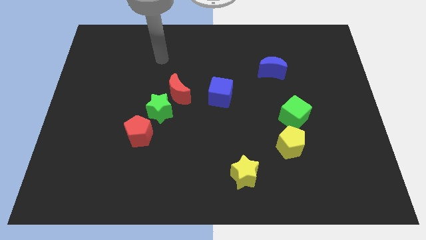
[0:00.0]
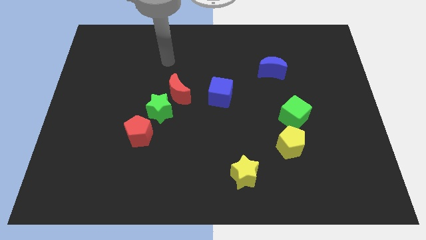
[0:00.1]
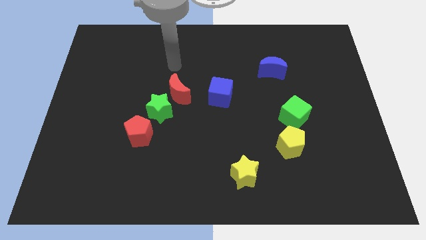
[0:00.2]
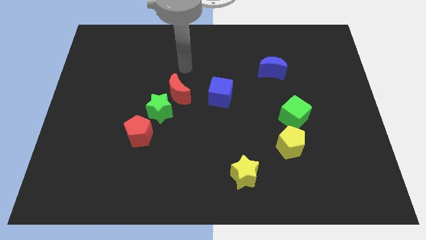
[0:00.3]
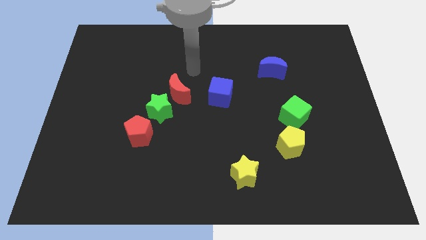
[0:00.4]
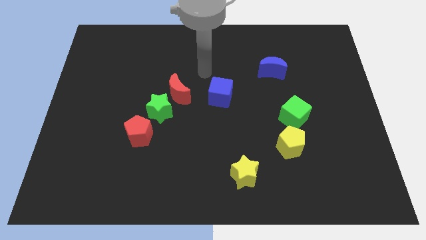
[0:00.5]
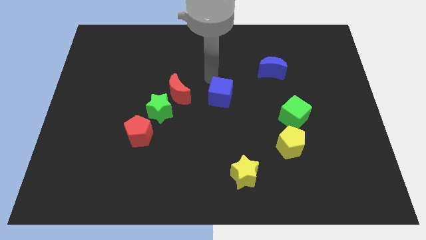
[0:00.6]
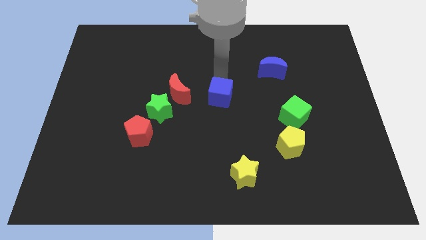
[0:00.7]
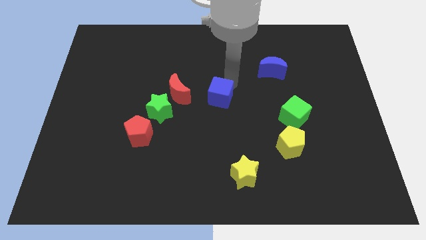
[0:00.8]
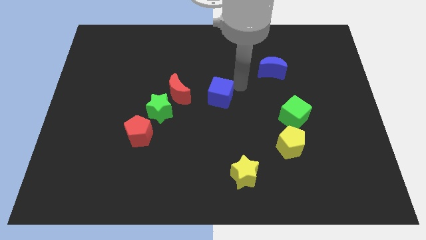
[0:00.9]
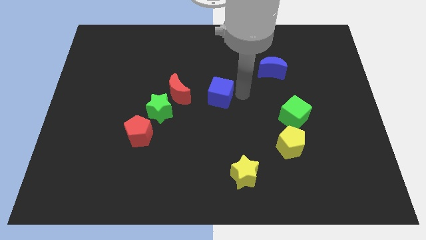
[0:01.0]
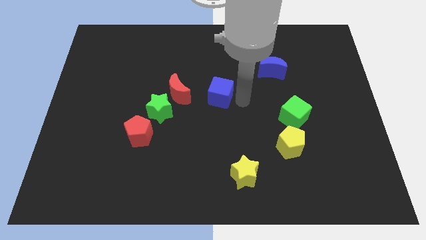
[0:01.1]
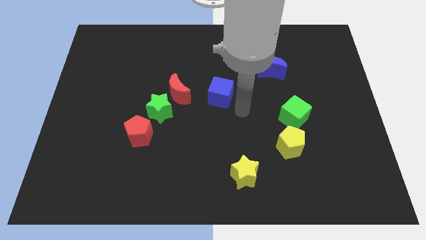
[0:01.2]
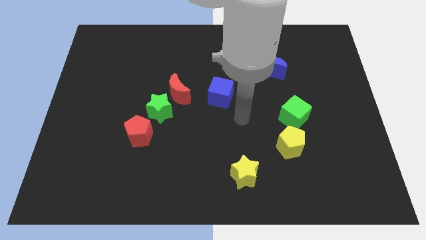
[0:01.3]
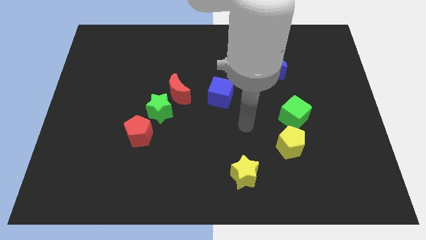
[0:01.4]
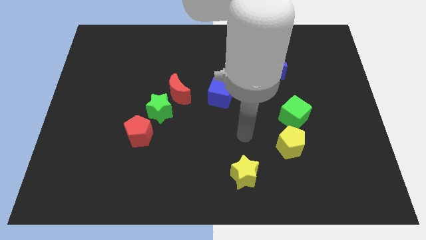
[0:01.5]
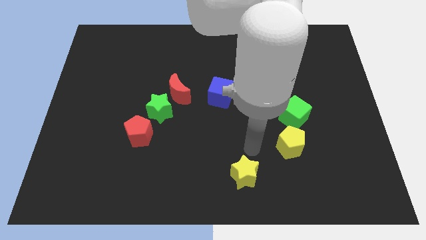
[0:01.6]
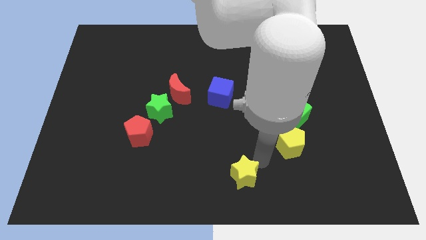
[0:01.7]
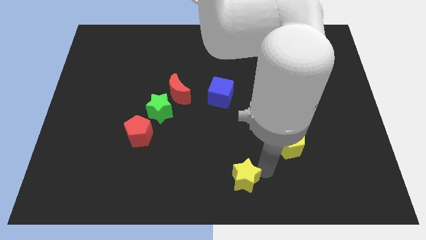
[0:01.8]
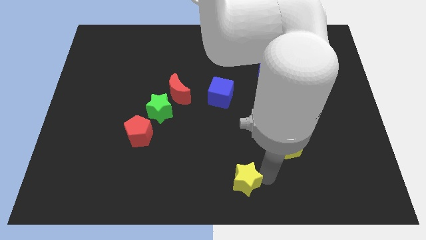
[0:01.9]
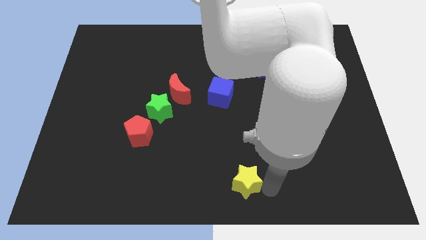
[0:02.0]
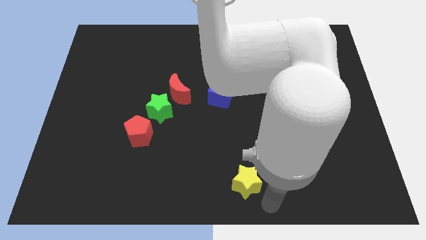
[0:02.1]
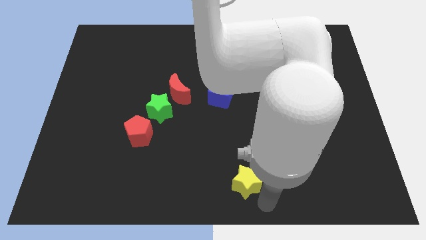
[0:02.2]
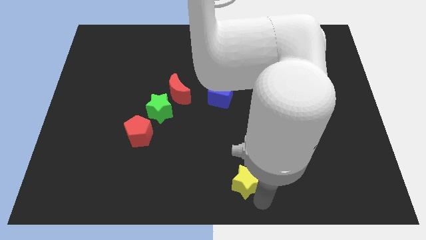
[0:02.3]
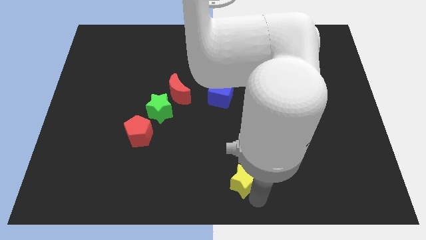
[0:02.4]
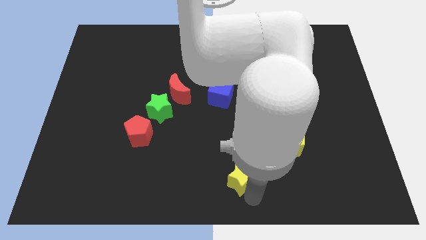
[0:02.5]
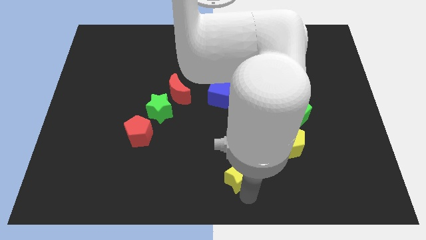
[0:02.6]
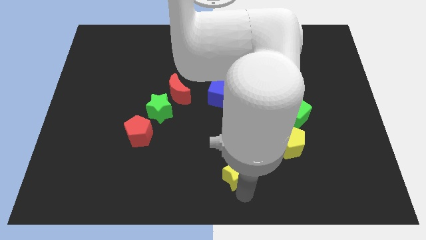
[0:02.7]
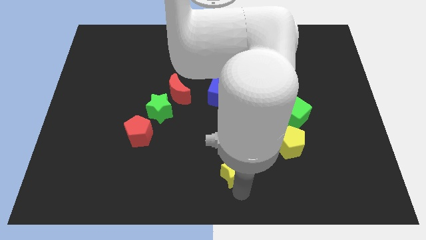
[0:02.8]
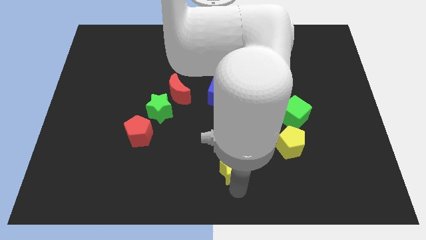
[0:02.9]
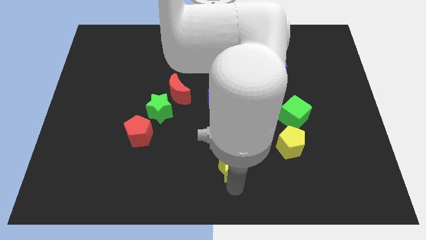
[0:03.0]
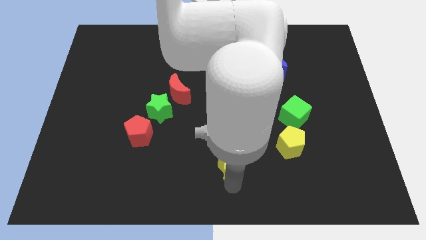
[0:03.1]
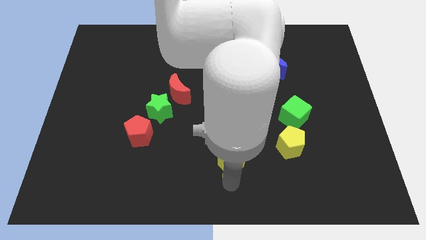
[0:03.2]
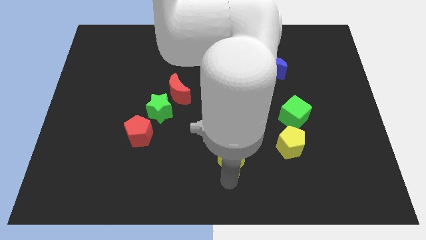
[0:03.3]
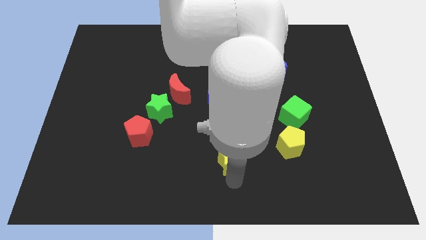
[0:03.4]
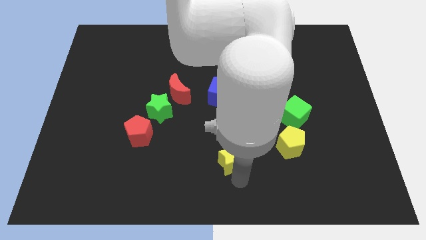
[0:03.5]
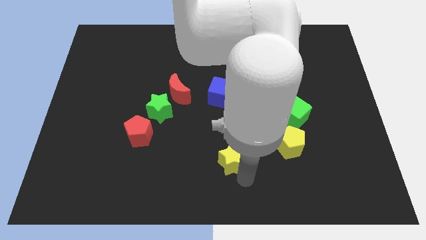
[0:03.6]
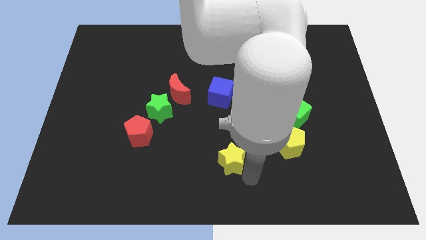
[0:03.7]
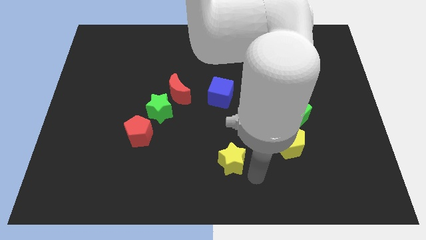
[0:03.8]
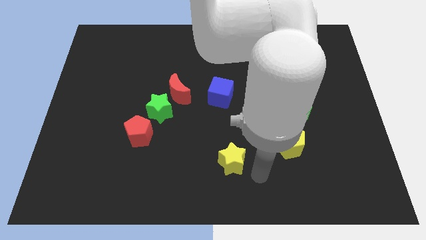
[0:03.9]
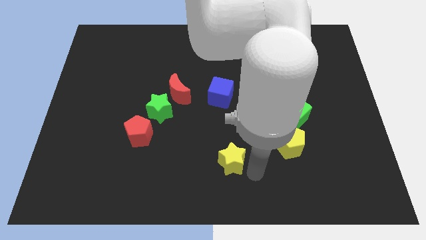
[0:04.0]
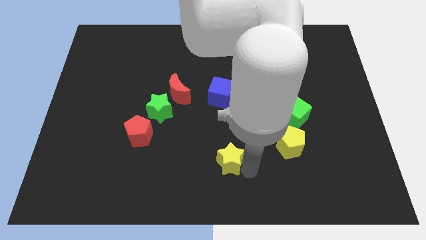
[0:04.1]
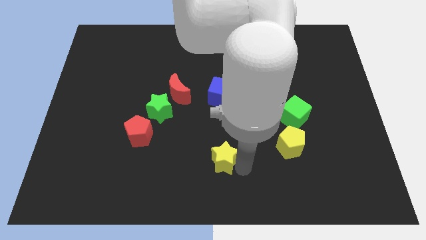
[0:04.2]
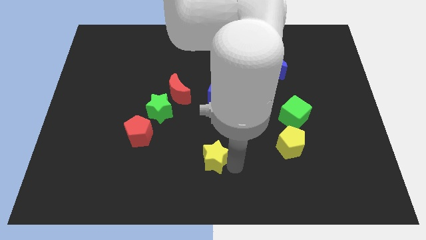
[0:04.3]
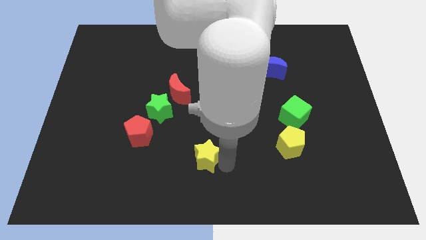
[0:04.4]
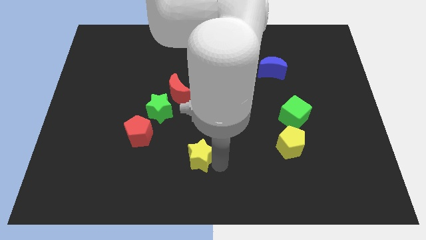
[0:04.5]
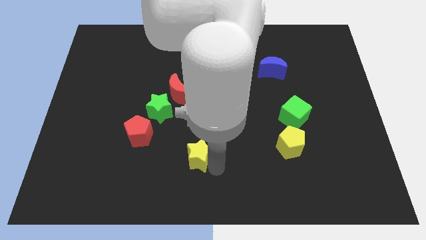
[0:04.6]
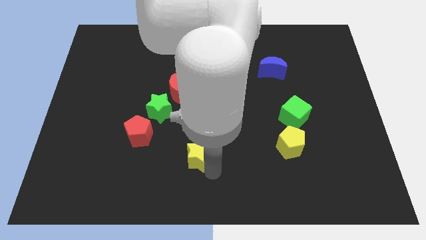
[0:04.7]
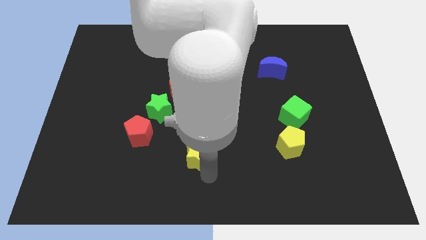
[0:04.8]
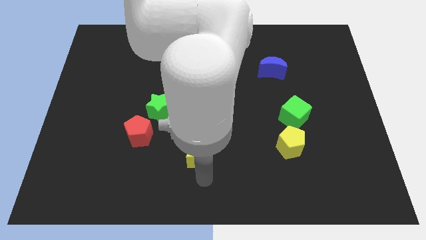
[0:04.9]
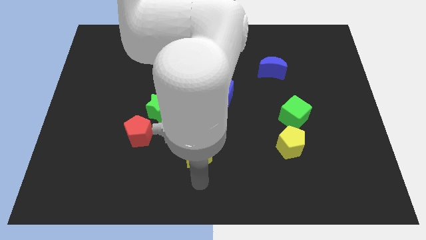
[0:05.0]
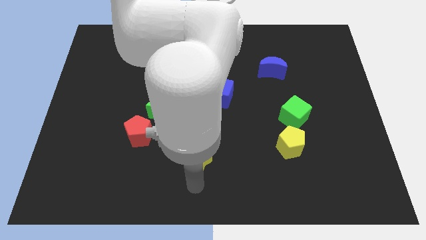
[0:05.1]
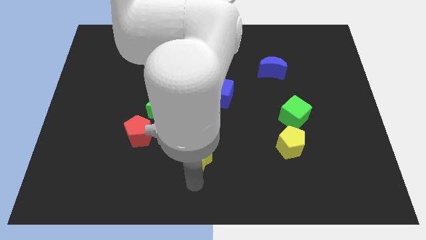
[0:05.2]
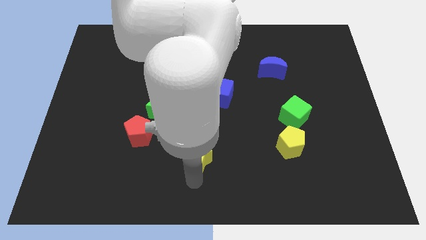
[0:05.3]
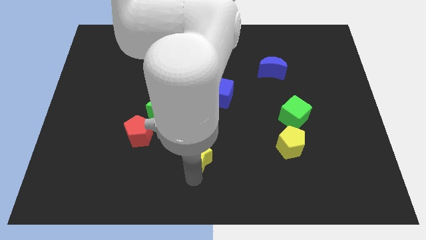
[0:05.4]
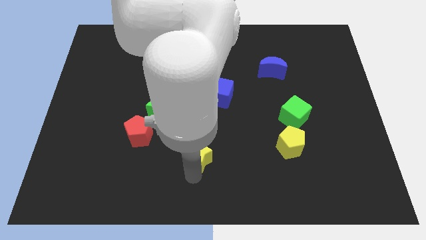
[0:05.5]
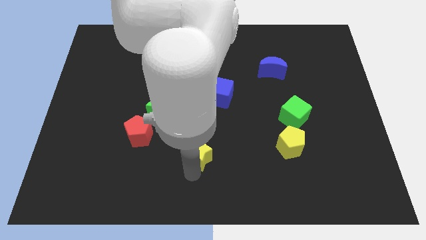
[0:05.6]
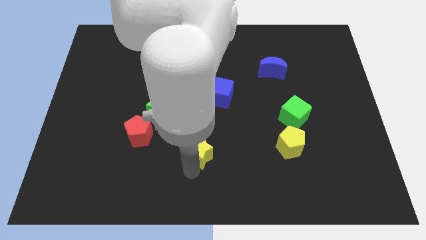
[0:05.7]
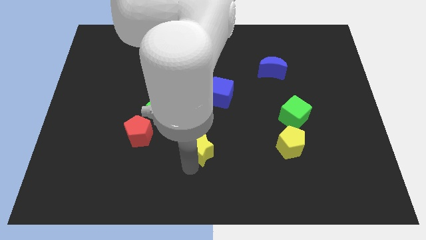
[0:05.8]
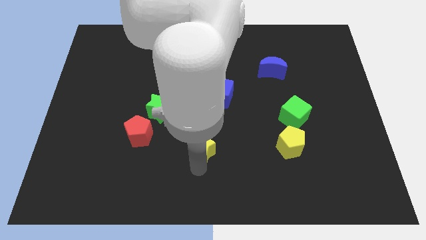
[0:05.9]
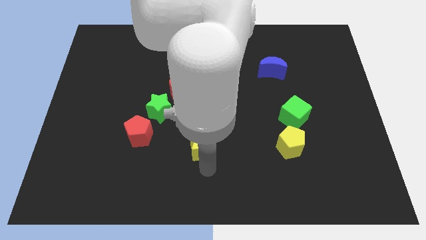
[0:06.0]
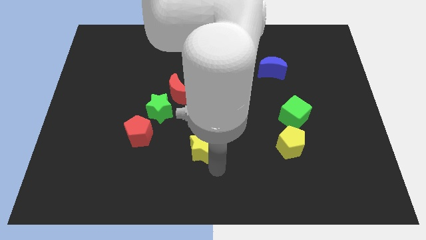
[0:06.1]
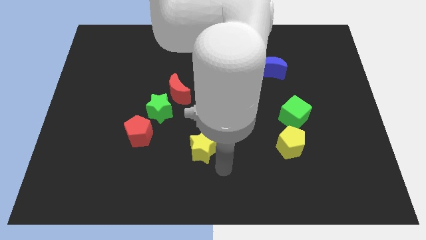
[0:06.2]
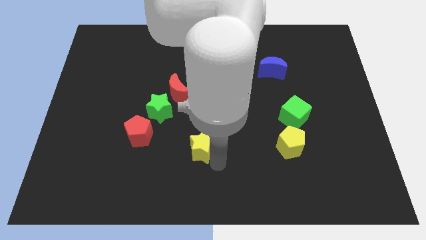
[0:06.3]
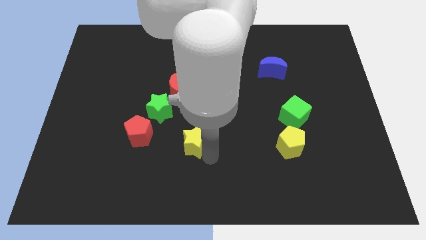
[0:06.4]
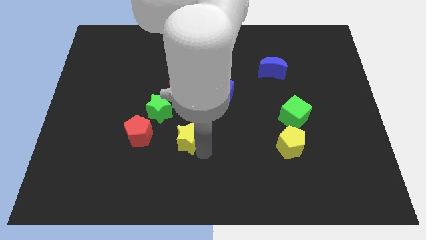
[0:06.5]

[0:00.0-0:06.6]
put the yellow star to the bottom side of the red moon

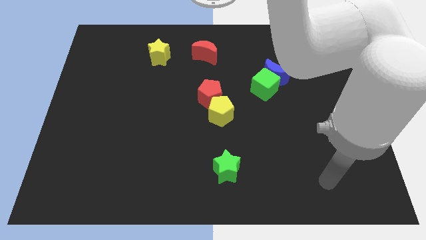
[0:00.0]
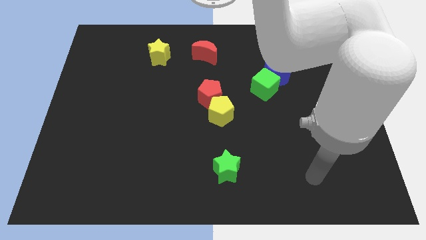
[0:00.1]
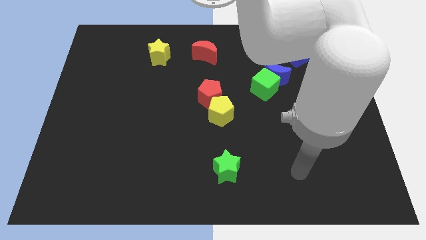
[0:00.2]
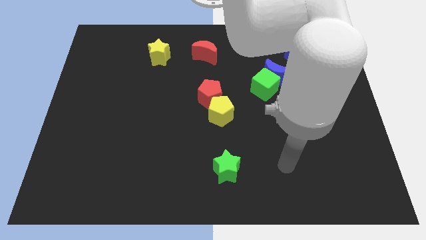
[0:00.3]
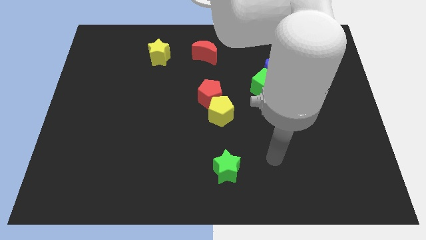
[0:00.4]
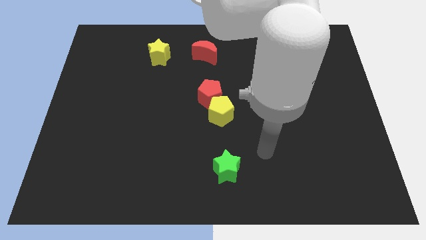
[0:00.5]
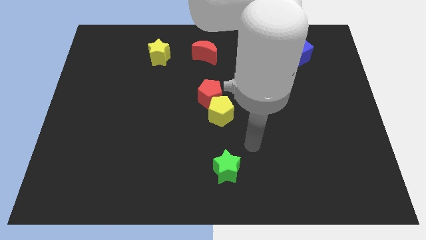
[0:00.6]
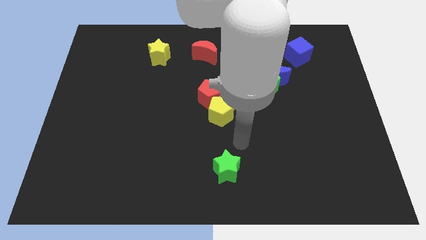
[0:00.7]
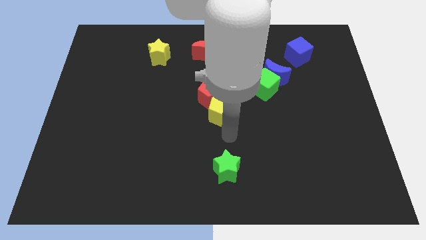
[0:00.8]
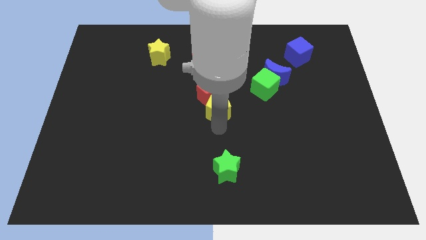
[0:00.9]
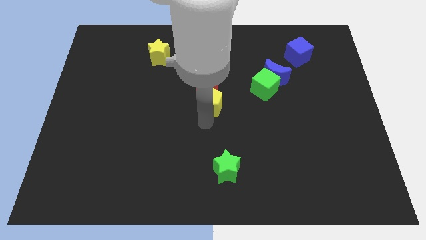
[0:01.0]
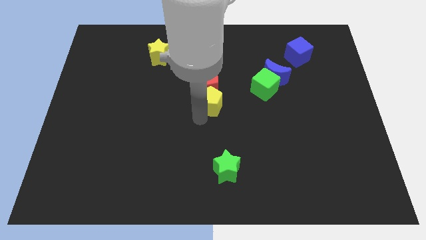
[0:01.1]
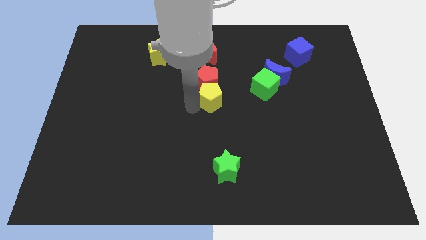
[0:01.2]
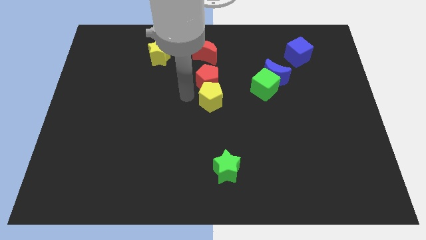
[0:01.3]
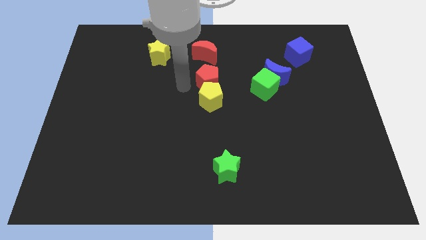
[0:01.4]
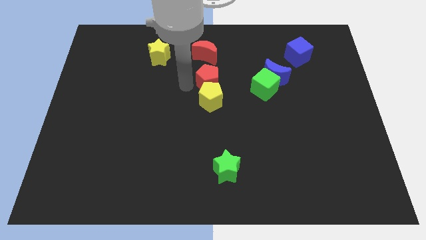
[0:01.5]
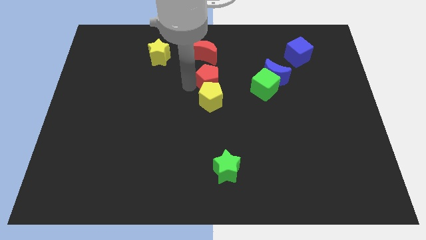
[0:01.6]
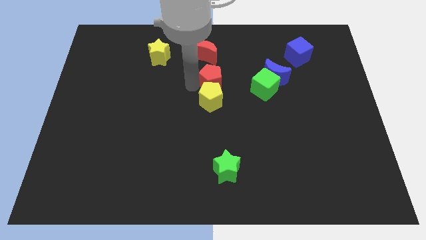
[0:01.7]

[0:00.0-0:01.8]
push the red pentagon to the left side of the blue moon
